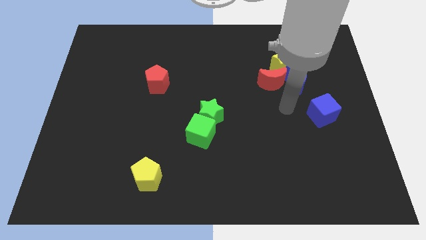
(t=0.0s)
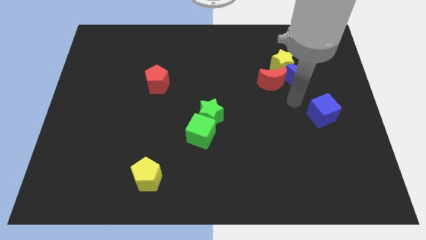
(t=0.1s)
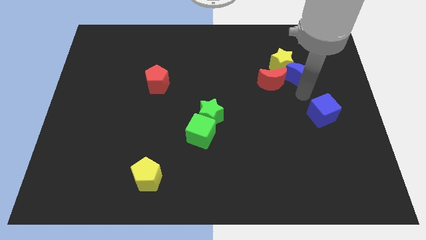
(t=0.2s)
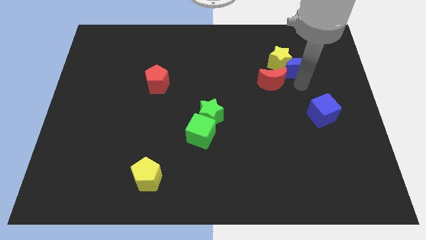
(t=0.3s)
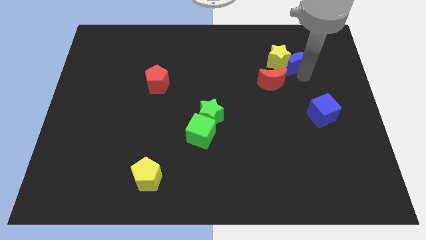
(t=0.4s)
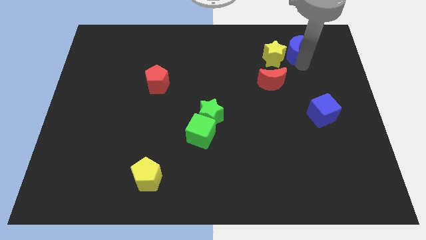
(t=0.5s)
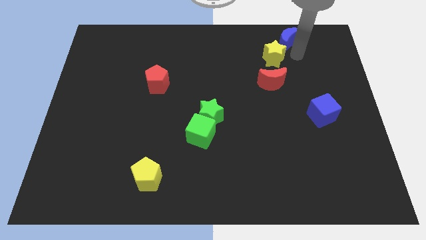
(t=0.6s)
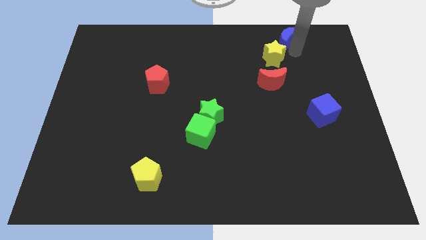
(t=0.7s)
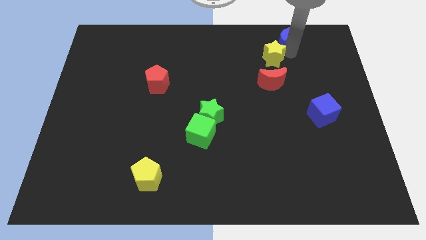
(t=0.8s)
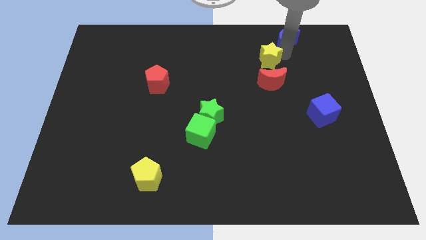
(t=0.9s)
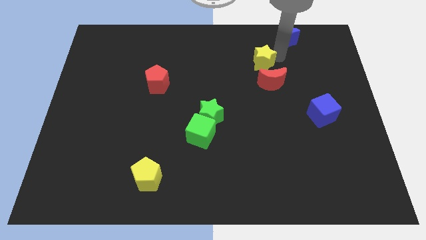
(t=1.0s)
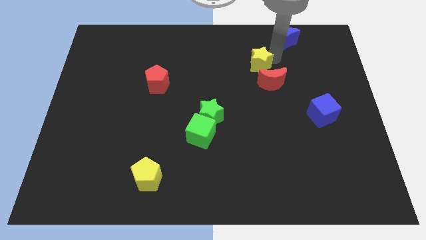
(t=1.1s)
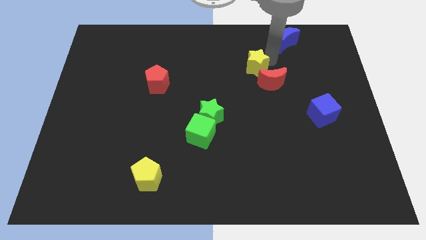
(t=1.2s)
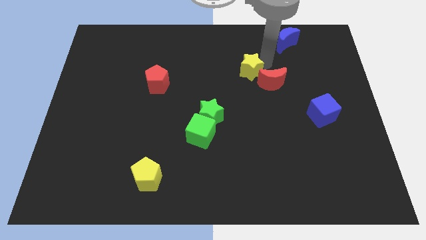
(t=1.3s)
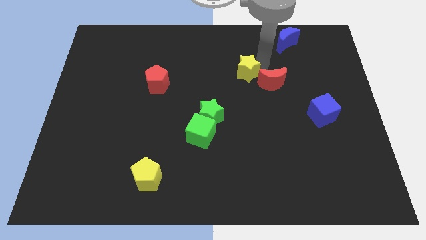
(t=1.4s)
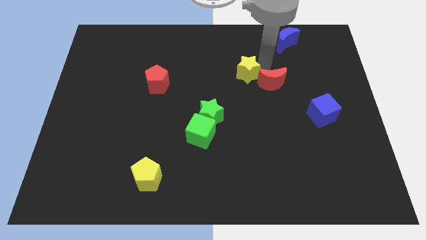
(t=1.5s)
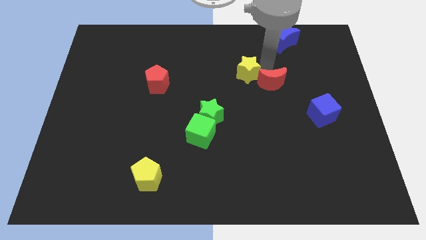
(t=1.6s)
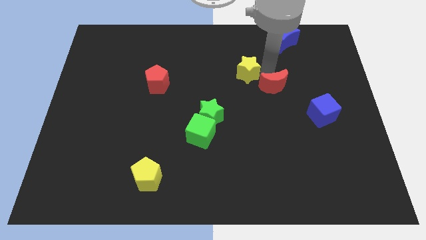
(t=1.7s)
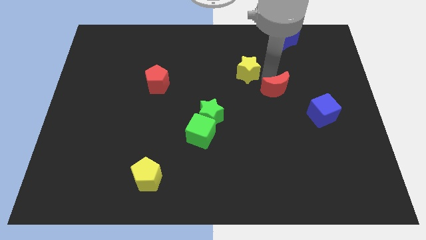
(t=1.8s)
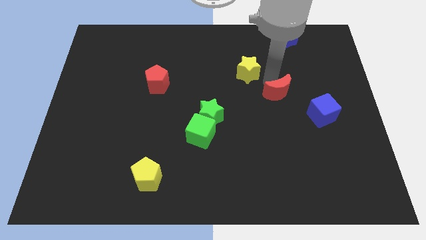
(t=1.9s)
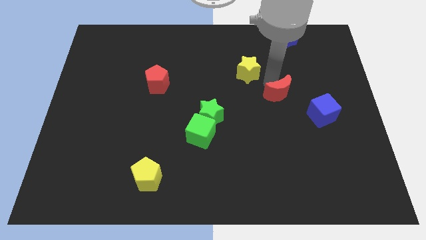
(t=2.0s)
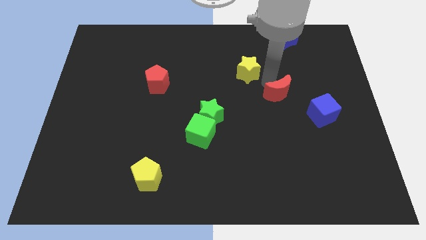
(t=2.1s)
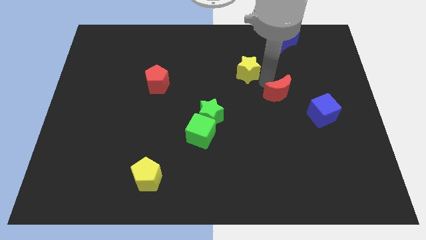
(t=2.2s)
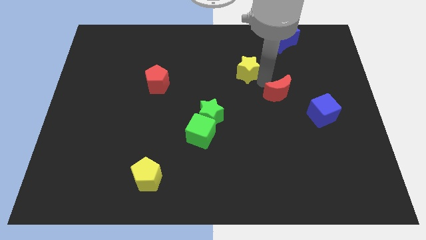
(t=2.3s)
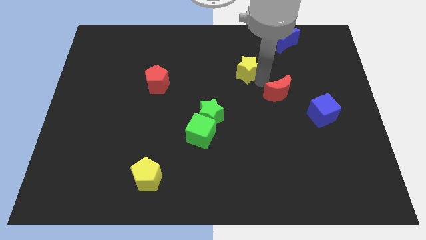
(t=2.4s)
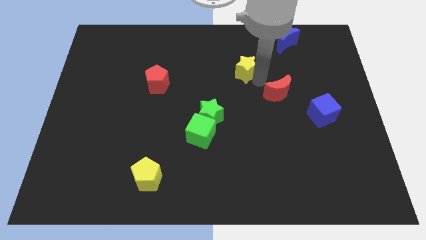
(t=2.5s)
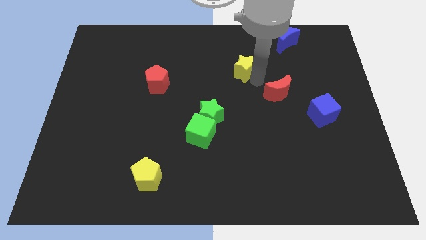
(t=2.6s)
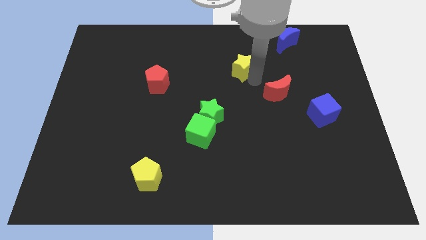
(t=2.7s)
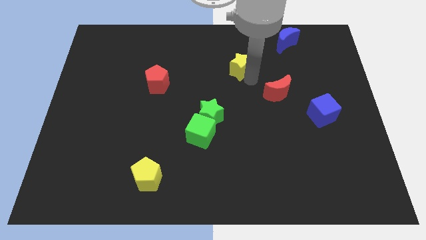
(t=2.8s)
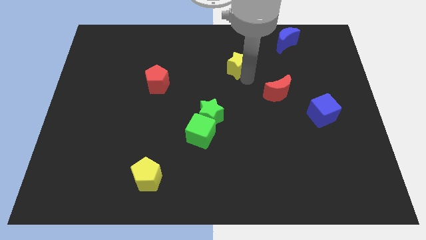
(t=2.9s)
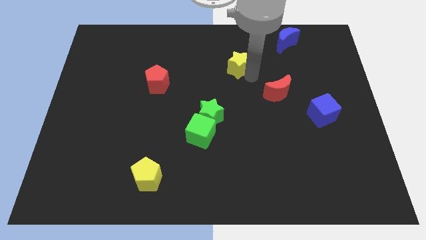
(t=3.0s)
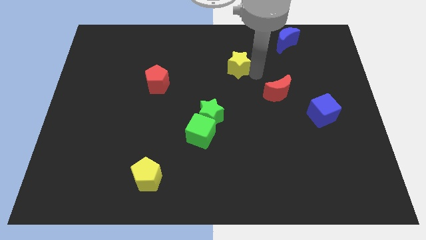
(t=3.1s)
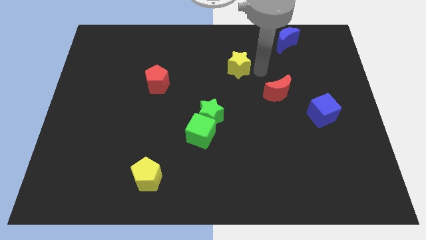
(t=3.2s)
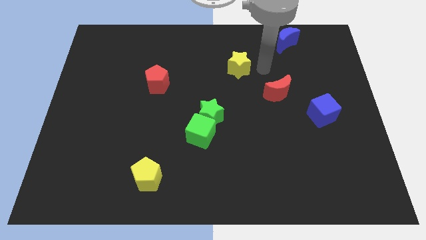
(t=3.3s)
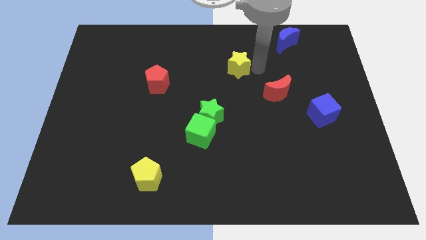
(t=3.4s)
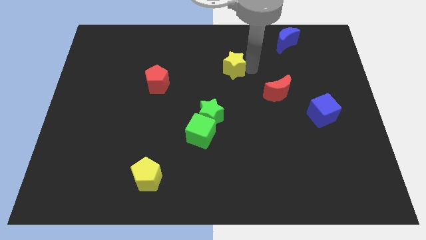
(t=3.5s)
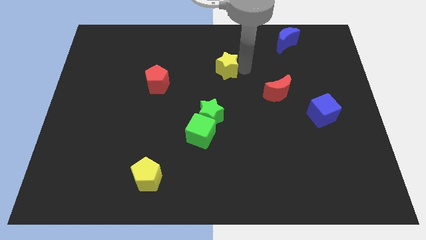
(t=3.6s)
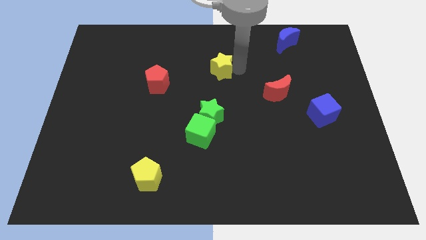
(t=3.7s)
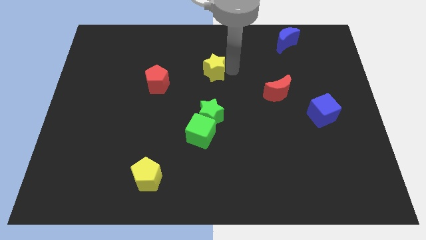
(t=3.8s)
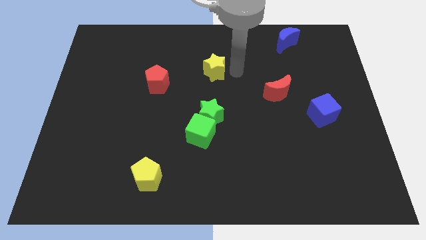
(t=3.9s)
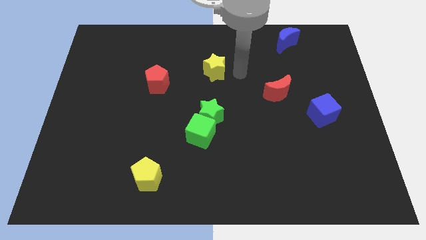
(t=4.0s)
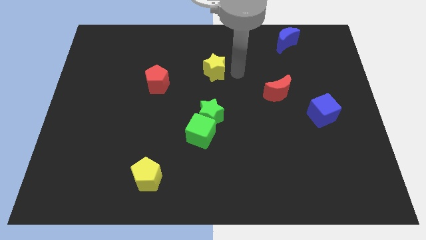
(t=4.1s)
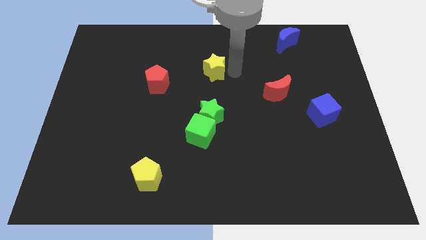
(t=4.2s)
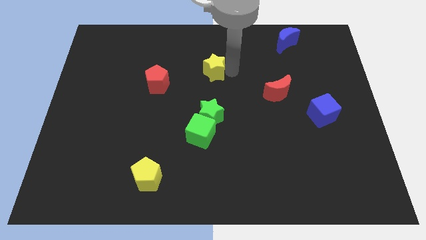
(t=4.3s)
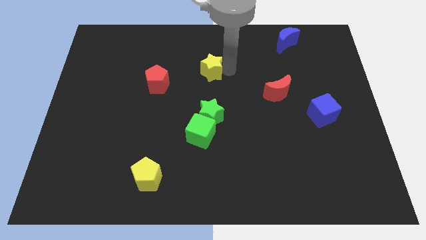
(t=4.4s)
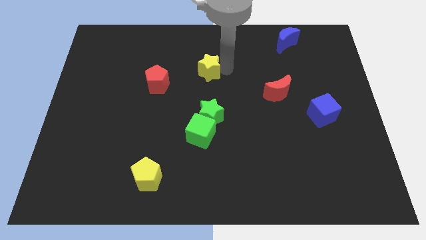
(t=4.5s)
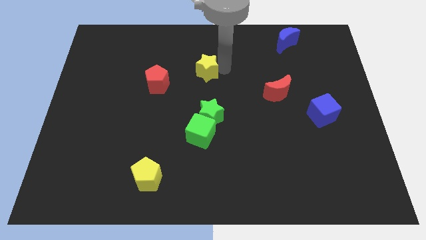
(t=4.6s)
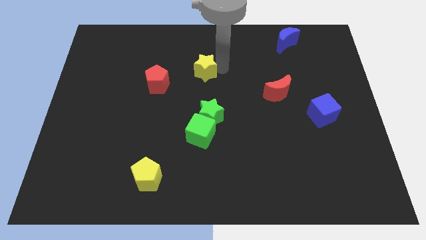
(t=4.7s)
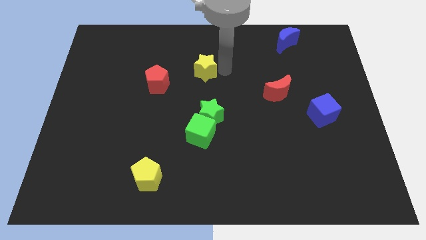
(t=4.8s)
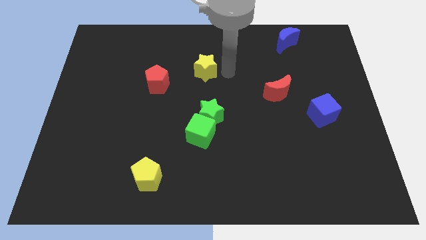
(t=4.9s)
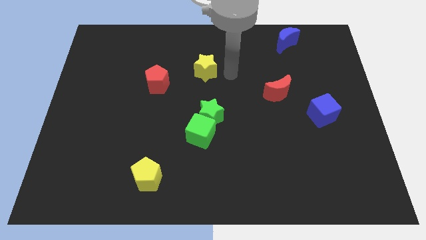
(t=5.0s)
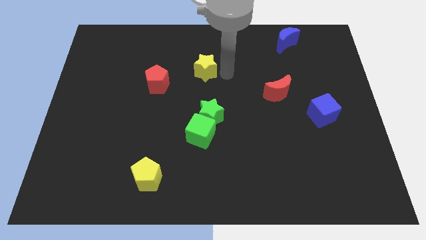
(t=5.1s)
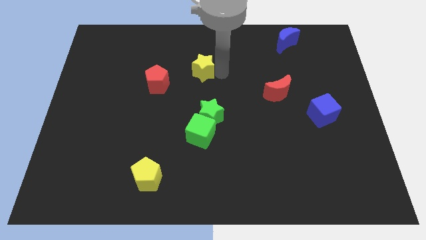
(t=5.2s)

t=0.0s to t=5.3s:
slide the yellow star left

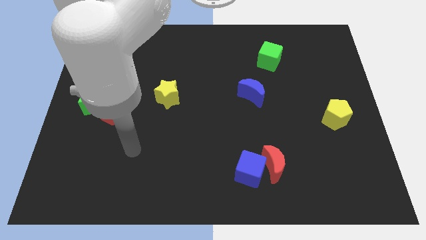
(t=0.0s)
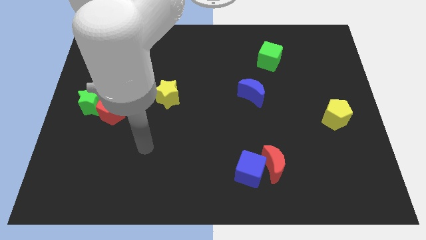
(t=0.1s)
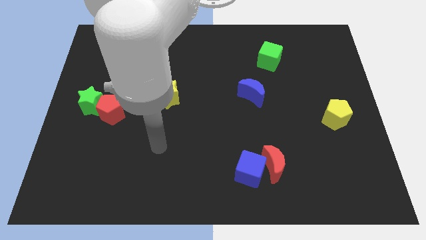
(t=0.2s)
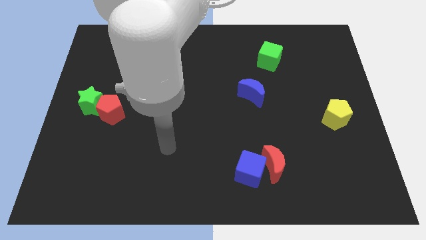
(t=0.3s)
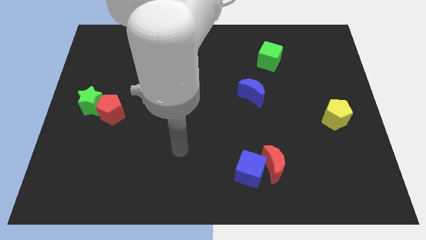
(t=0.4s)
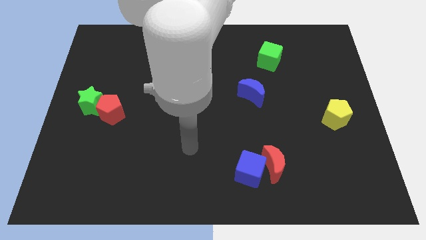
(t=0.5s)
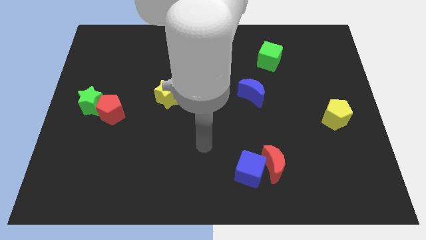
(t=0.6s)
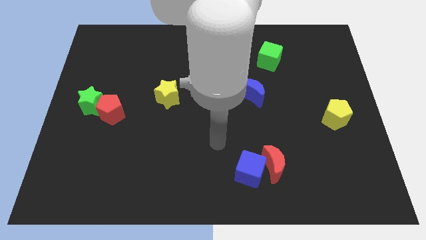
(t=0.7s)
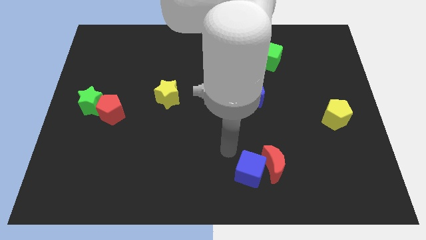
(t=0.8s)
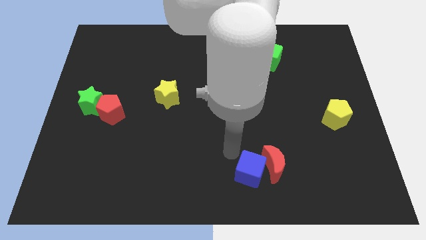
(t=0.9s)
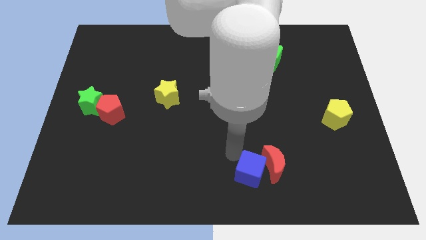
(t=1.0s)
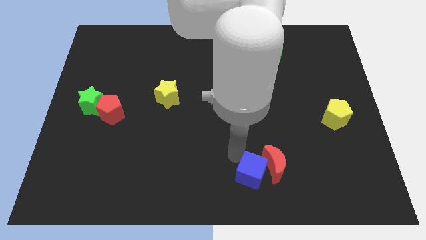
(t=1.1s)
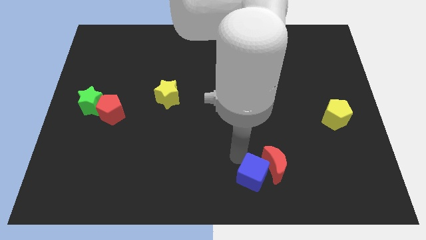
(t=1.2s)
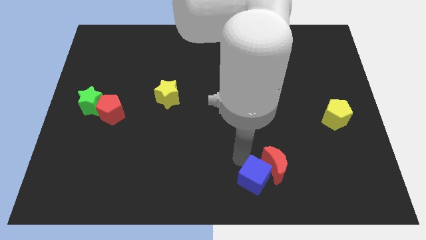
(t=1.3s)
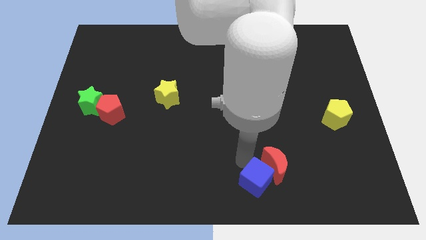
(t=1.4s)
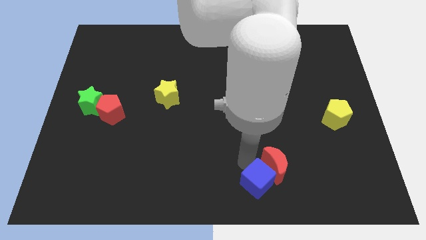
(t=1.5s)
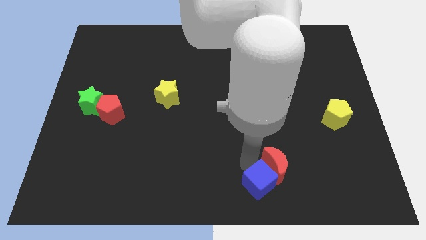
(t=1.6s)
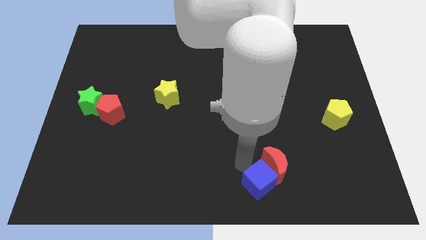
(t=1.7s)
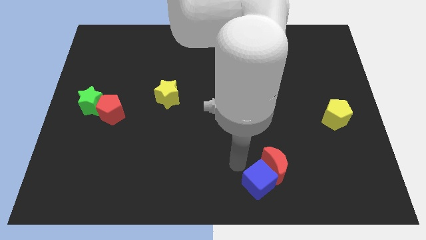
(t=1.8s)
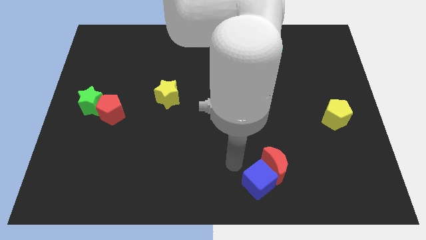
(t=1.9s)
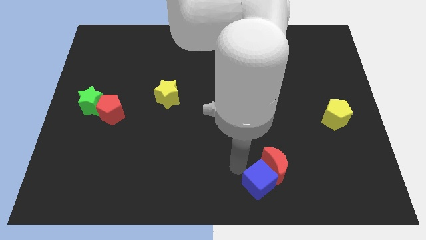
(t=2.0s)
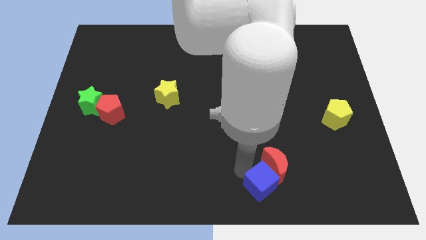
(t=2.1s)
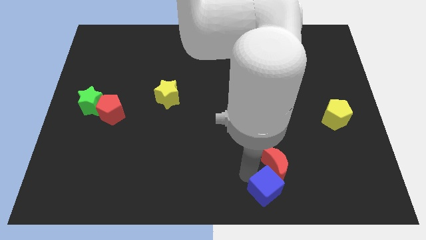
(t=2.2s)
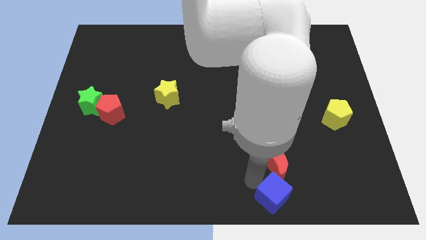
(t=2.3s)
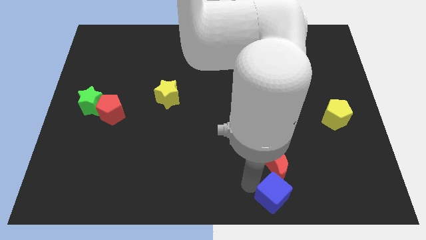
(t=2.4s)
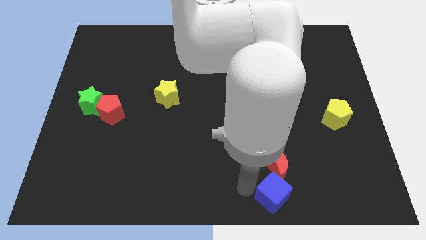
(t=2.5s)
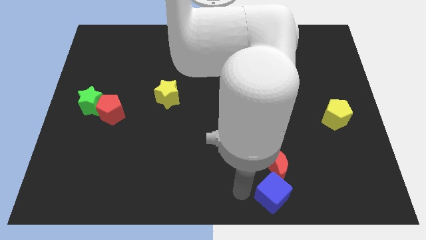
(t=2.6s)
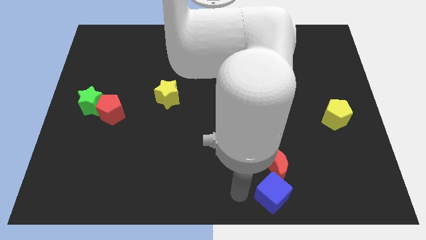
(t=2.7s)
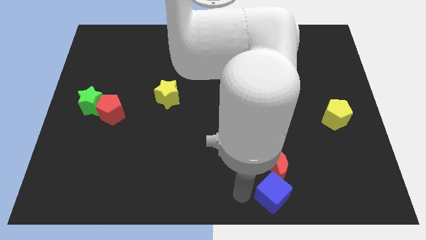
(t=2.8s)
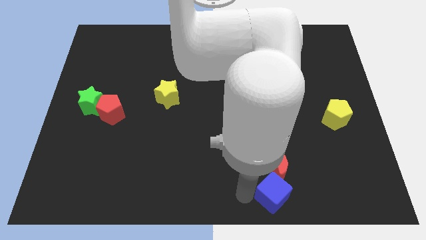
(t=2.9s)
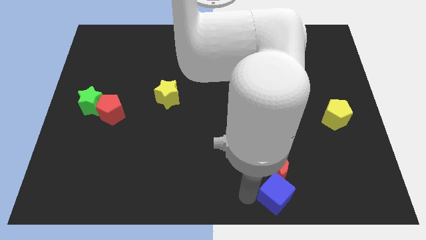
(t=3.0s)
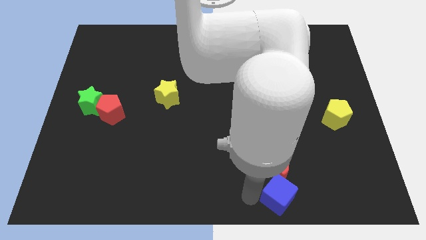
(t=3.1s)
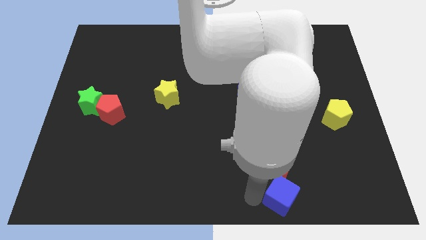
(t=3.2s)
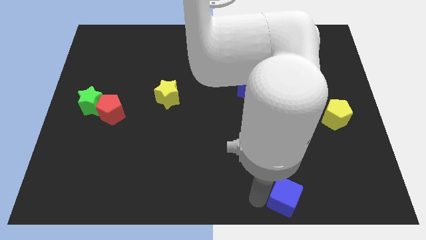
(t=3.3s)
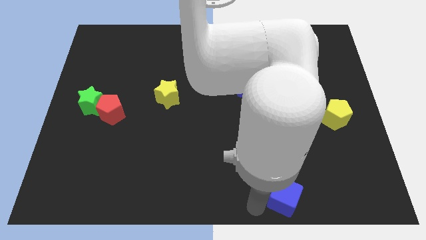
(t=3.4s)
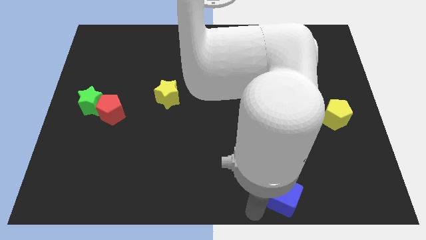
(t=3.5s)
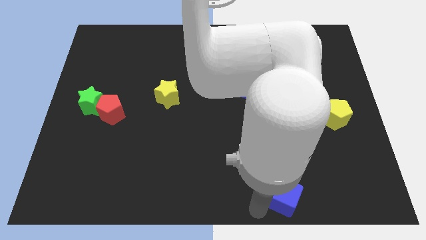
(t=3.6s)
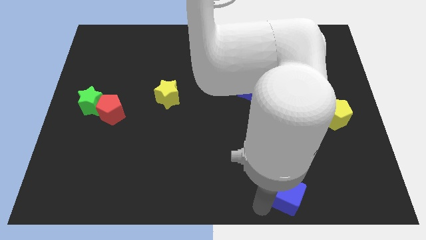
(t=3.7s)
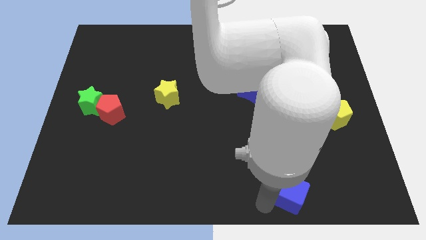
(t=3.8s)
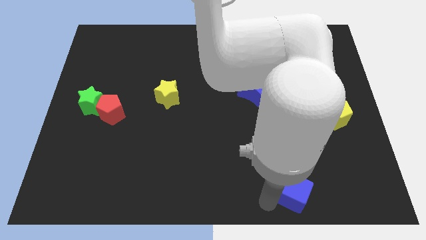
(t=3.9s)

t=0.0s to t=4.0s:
push the blue cube to the right somewhat
